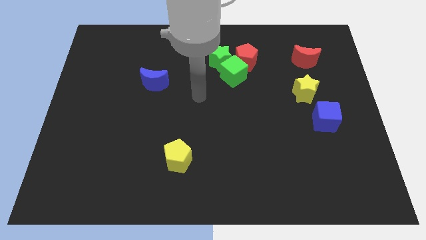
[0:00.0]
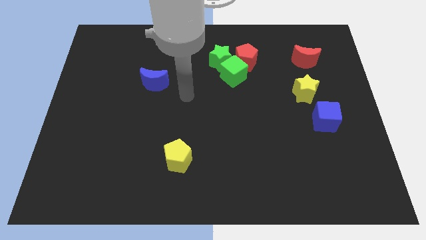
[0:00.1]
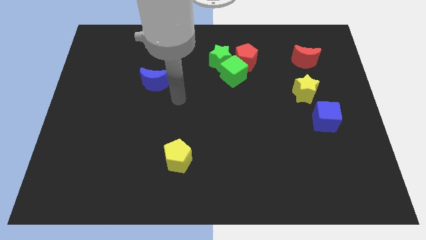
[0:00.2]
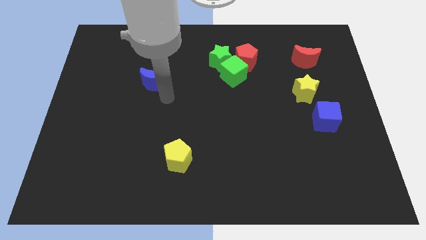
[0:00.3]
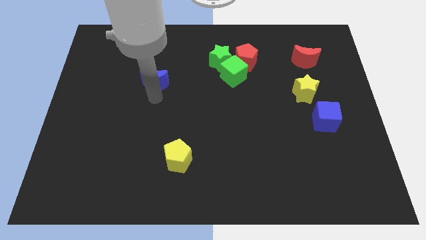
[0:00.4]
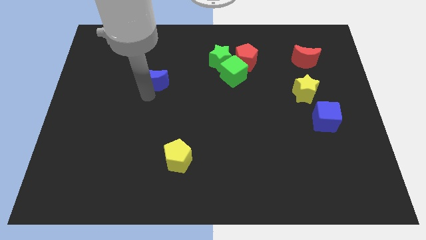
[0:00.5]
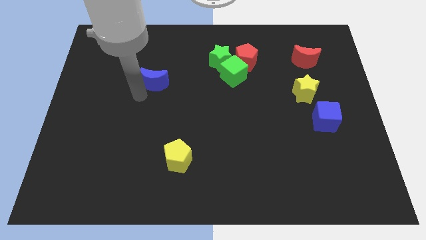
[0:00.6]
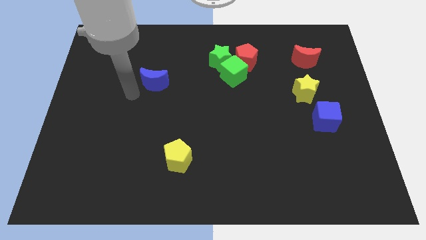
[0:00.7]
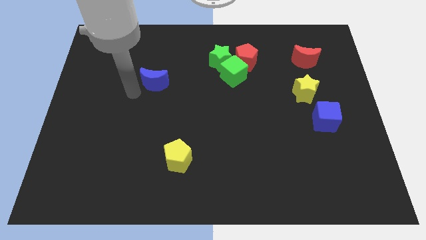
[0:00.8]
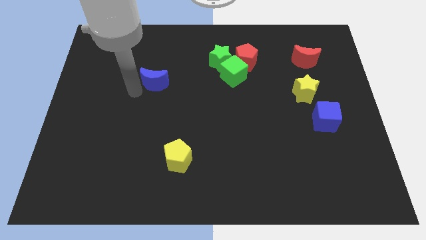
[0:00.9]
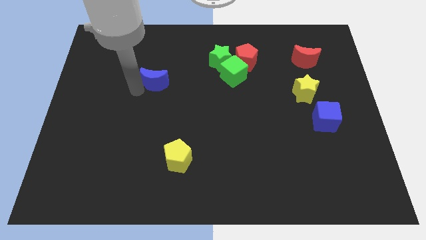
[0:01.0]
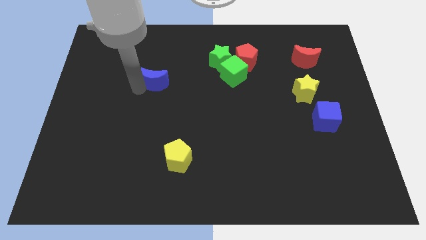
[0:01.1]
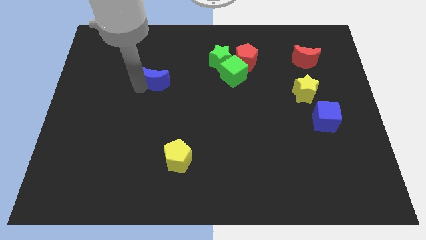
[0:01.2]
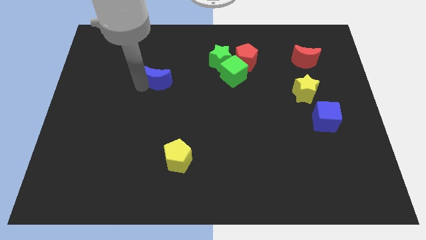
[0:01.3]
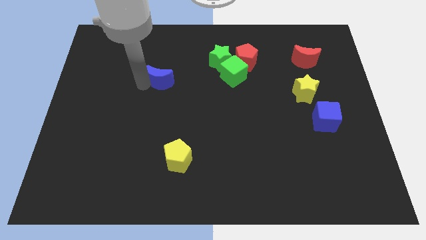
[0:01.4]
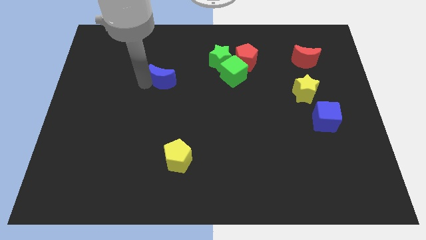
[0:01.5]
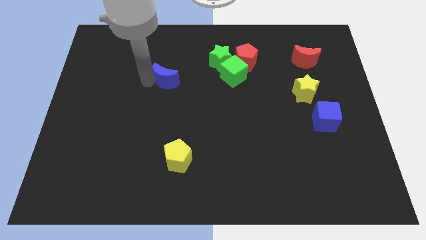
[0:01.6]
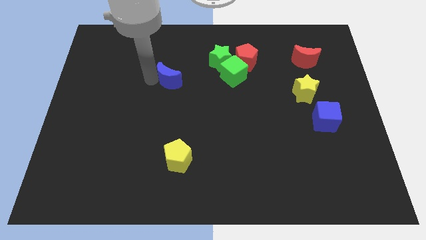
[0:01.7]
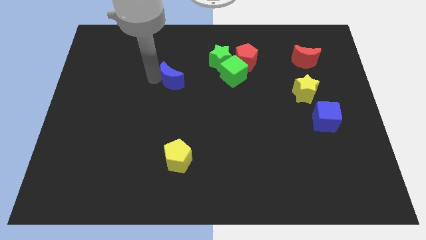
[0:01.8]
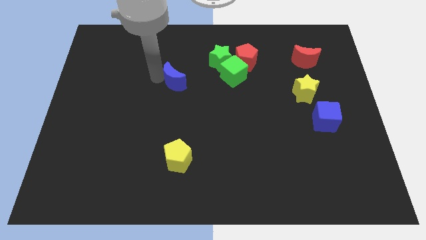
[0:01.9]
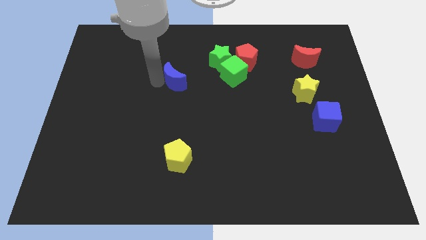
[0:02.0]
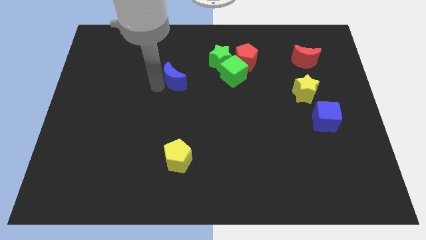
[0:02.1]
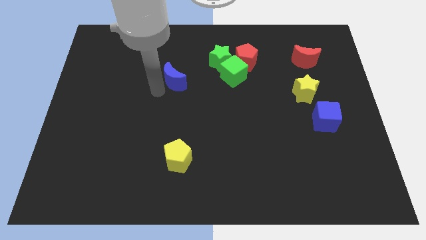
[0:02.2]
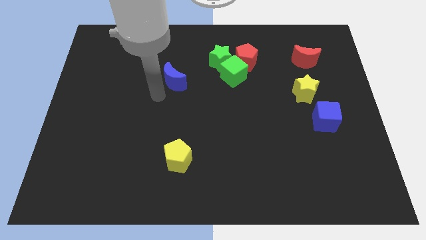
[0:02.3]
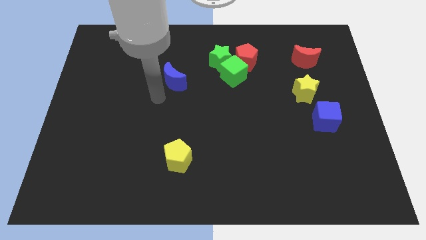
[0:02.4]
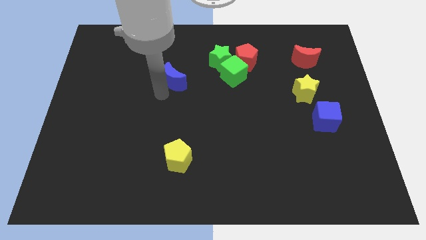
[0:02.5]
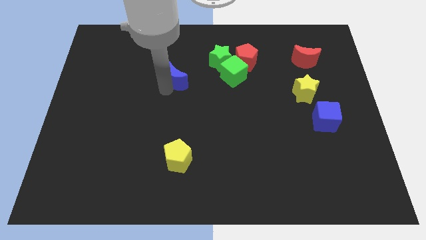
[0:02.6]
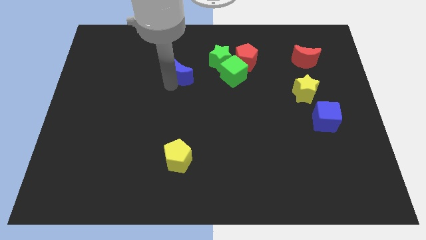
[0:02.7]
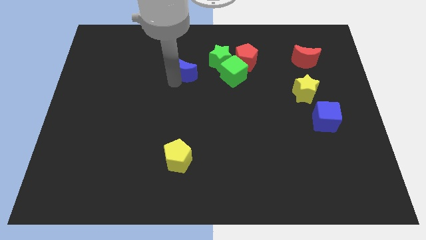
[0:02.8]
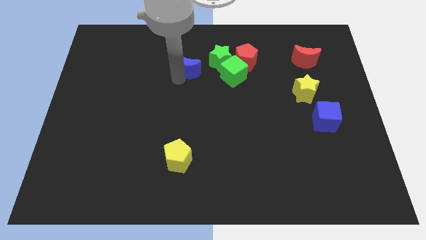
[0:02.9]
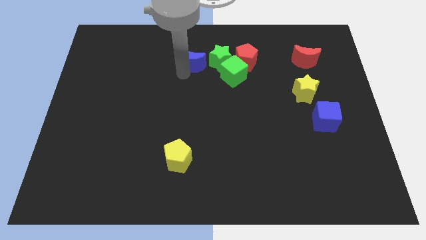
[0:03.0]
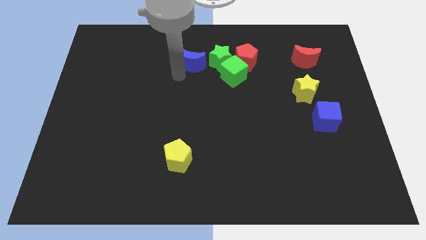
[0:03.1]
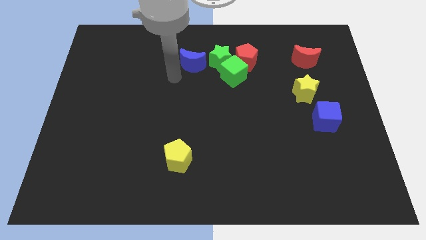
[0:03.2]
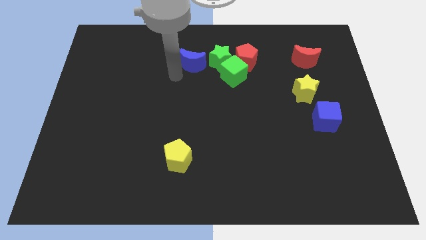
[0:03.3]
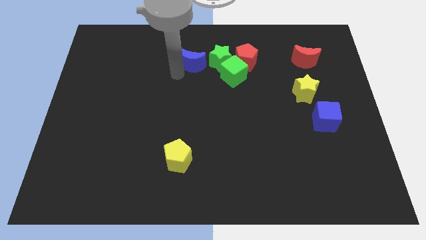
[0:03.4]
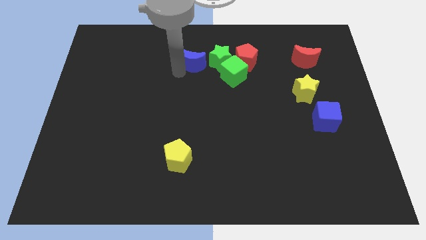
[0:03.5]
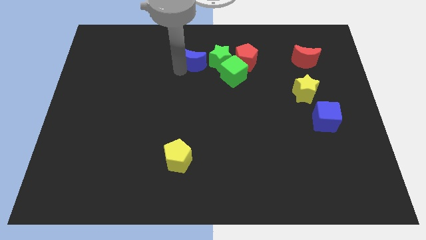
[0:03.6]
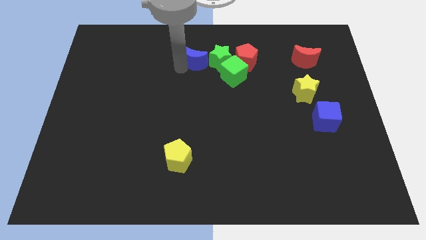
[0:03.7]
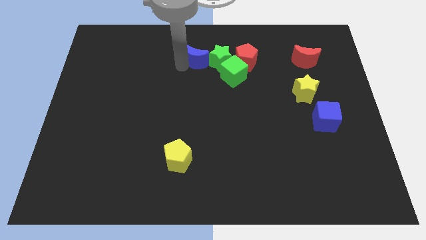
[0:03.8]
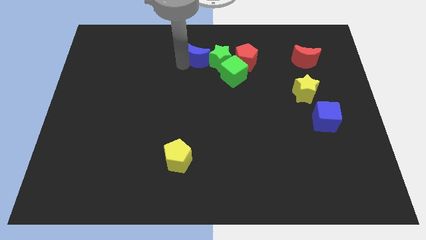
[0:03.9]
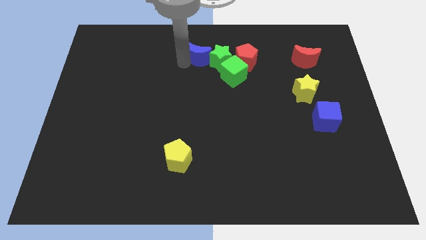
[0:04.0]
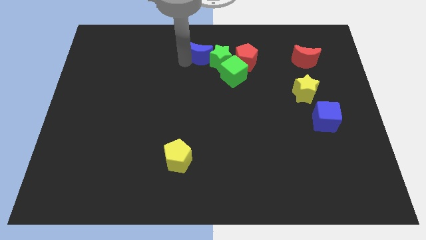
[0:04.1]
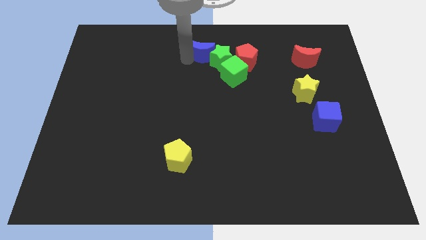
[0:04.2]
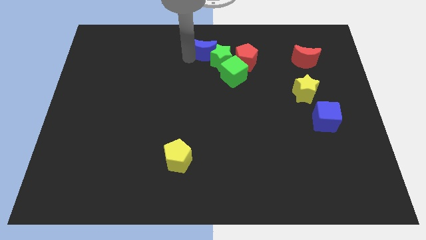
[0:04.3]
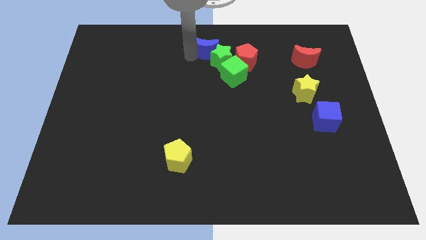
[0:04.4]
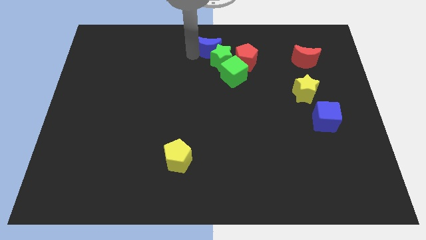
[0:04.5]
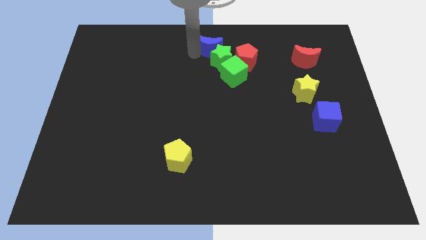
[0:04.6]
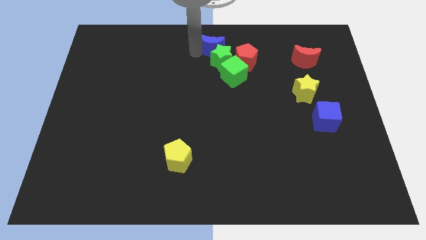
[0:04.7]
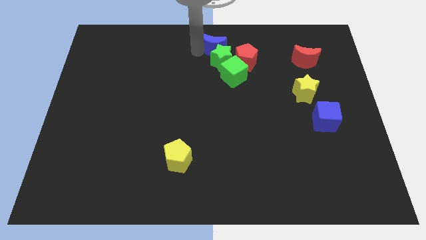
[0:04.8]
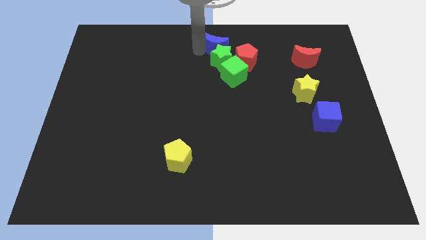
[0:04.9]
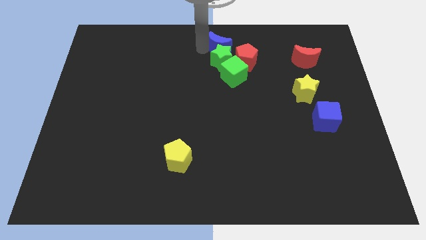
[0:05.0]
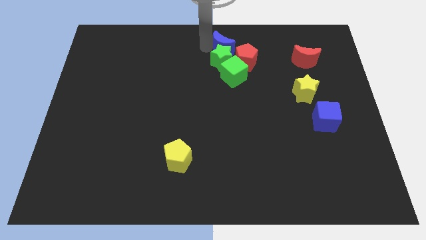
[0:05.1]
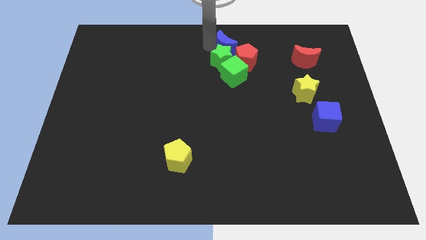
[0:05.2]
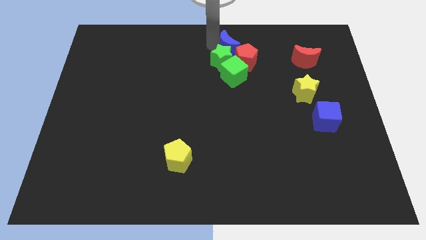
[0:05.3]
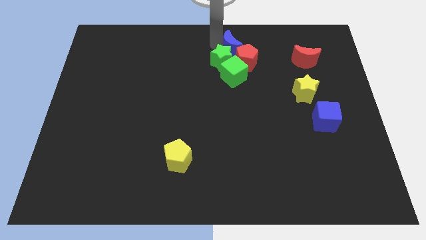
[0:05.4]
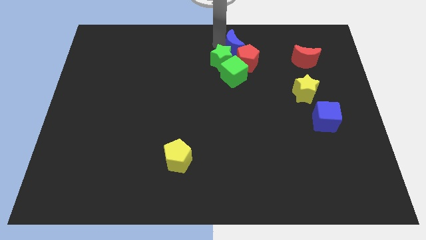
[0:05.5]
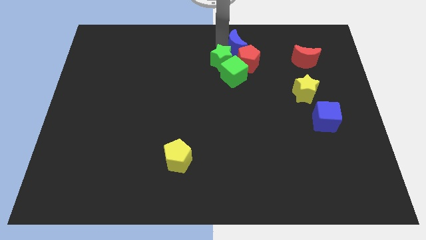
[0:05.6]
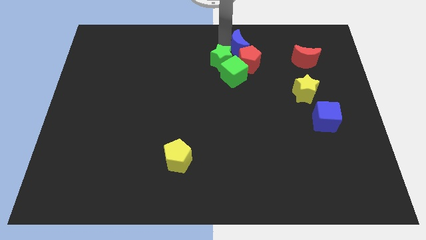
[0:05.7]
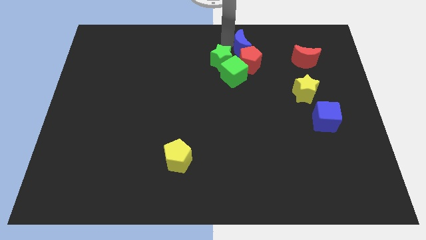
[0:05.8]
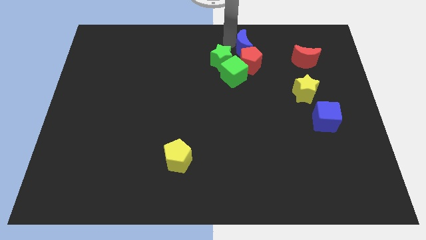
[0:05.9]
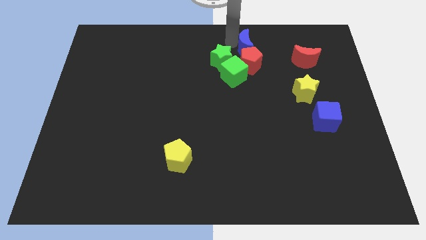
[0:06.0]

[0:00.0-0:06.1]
push the blue moon to the top right side of the green cube

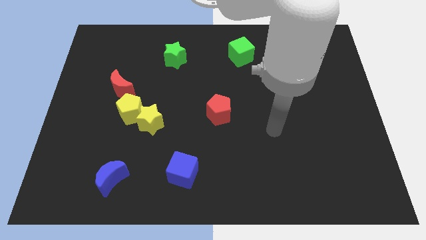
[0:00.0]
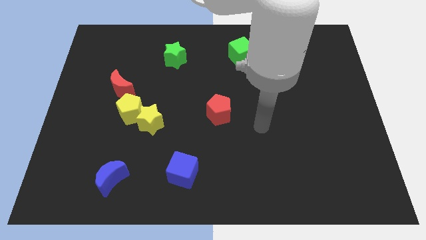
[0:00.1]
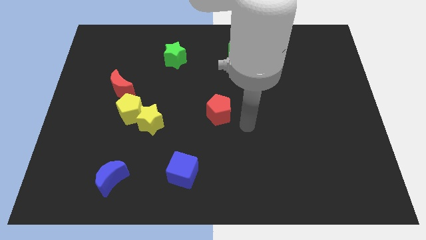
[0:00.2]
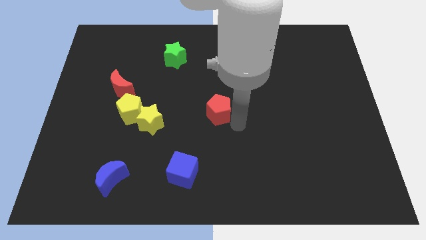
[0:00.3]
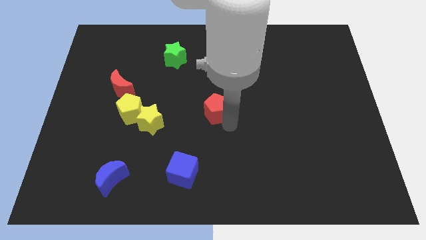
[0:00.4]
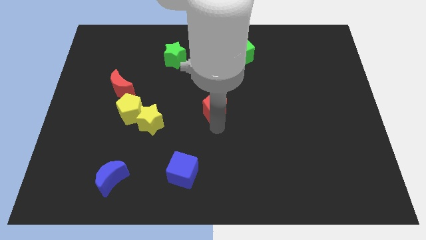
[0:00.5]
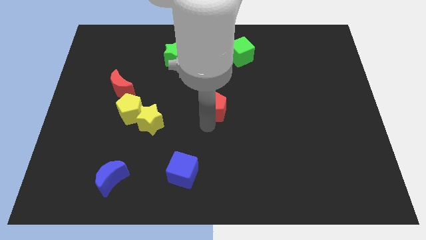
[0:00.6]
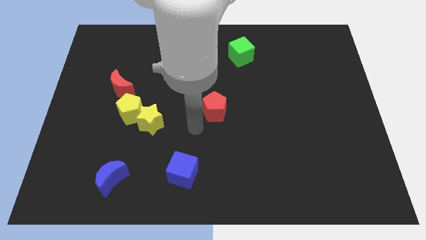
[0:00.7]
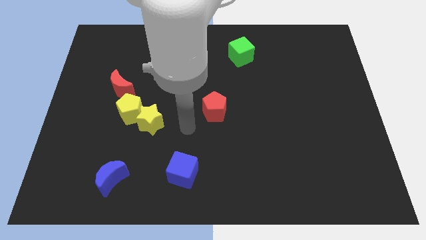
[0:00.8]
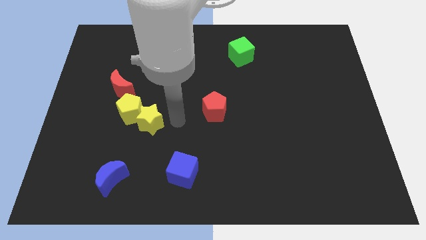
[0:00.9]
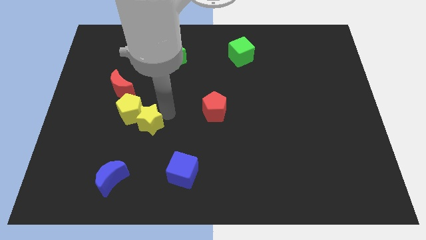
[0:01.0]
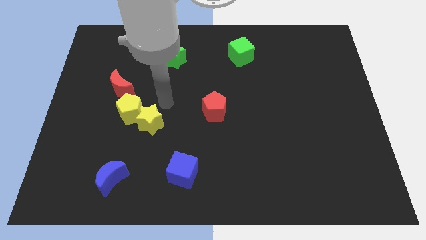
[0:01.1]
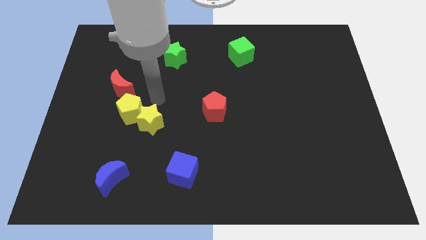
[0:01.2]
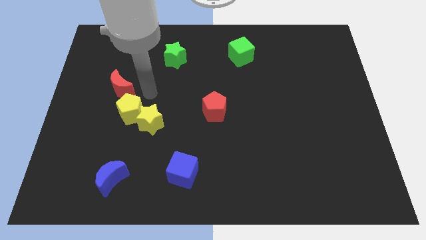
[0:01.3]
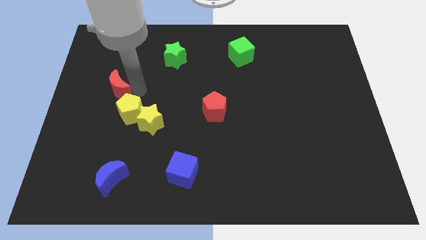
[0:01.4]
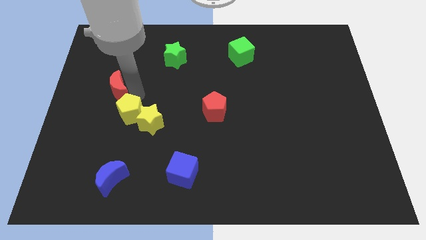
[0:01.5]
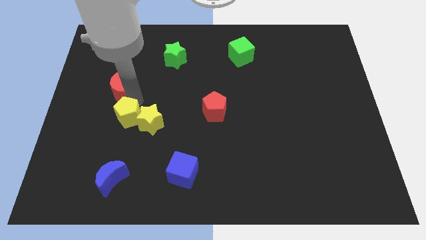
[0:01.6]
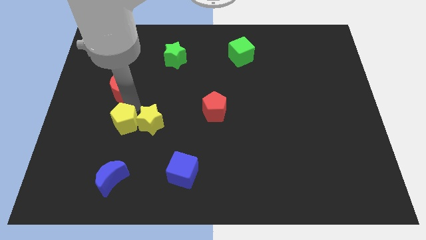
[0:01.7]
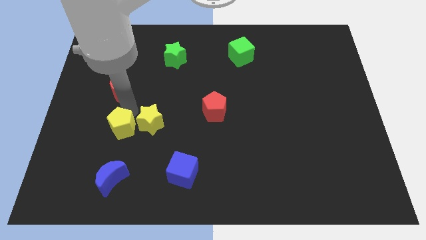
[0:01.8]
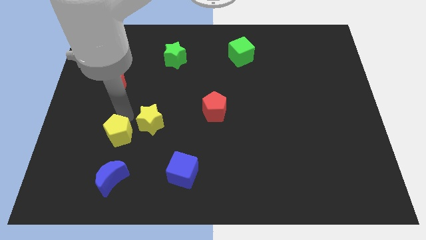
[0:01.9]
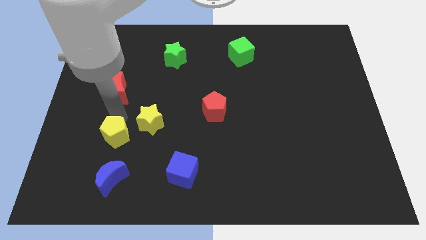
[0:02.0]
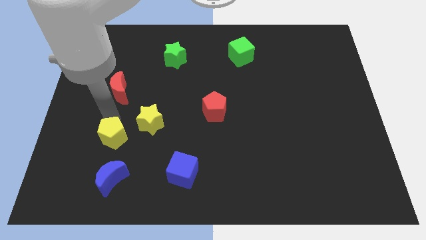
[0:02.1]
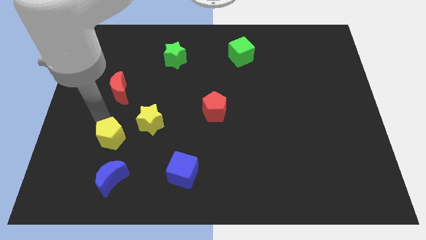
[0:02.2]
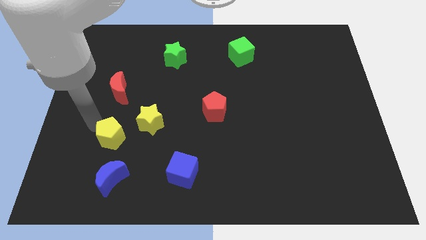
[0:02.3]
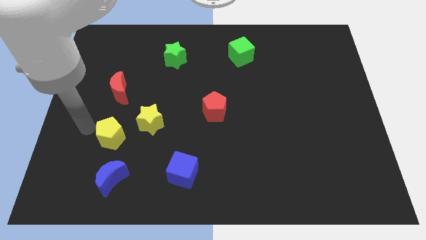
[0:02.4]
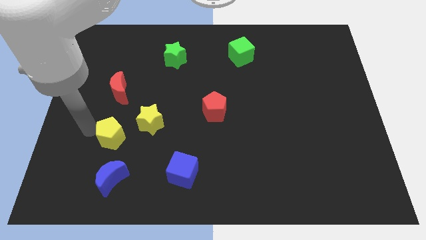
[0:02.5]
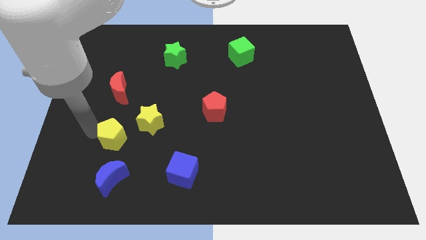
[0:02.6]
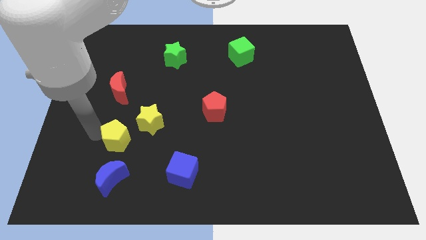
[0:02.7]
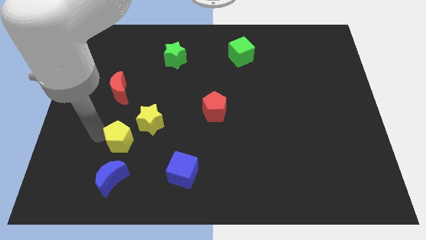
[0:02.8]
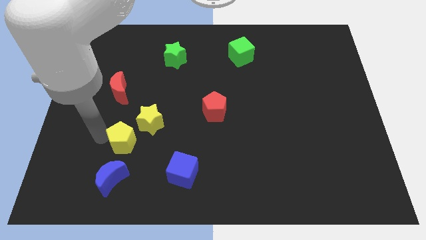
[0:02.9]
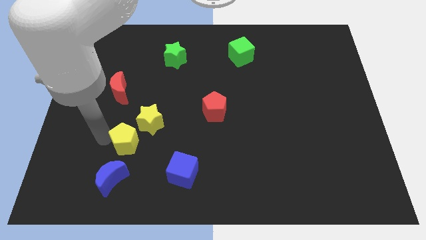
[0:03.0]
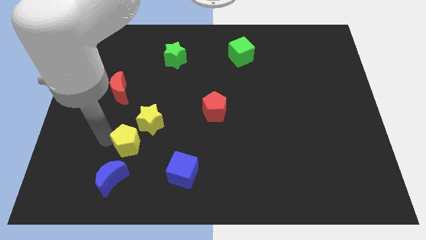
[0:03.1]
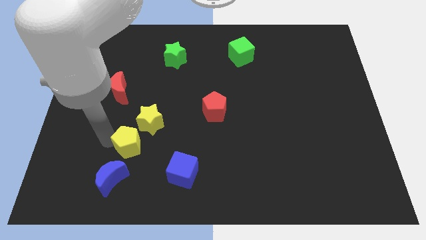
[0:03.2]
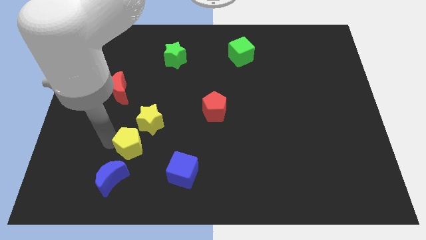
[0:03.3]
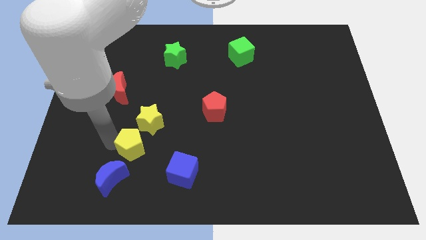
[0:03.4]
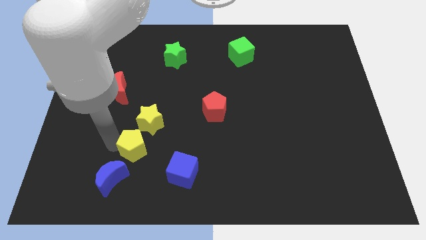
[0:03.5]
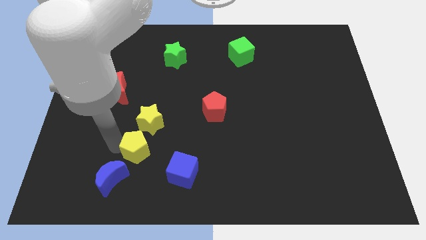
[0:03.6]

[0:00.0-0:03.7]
put the yellow pentagon diagonally up and to the left of the blue cube
